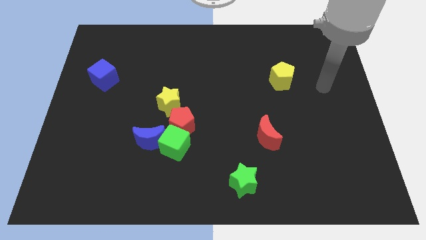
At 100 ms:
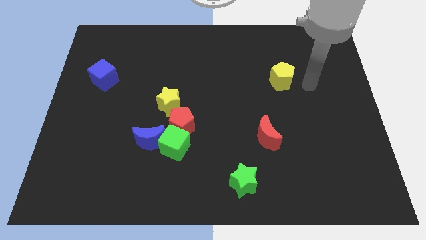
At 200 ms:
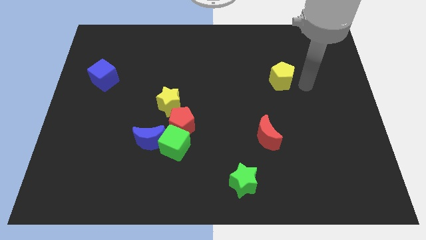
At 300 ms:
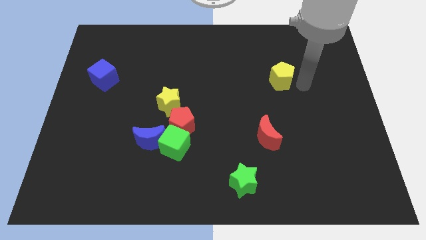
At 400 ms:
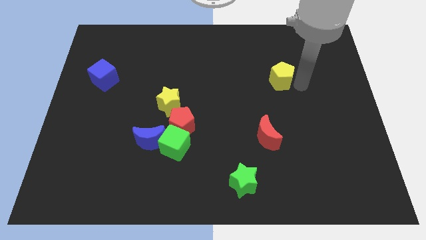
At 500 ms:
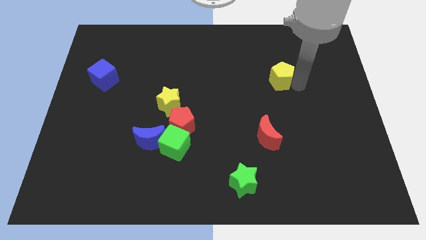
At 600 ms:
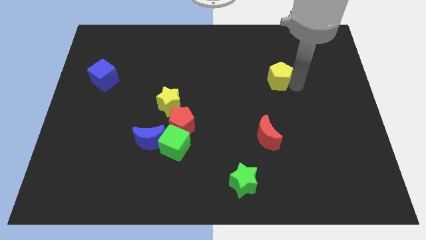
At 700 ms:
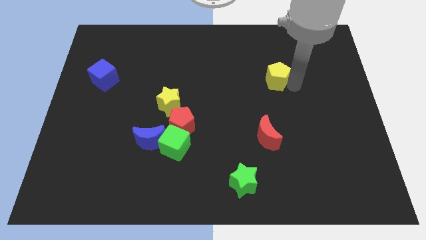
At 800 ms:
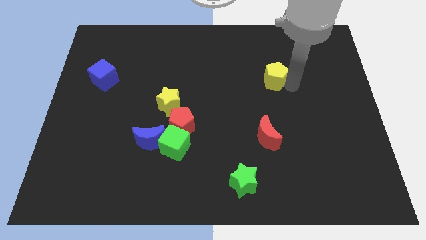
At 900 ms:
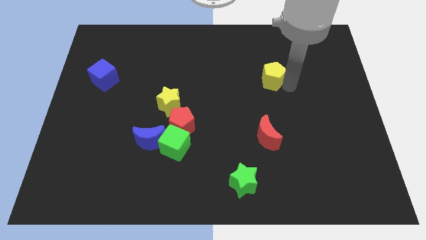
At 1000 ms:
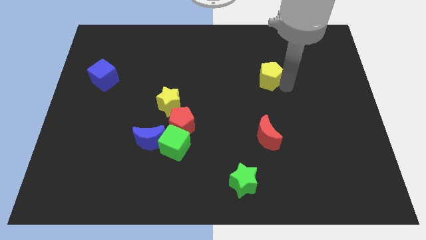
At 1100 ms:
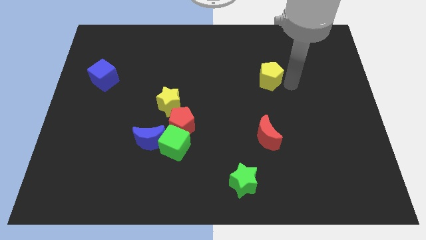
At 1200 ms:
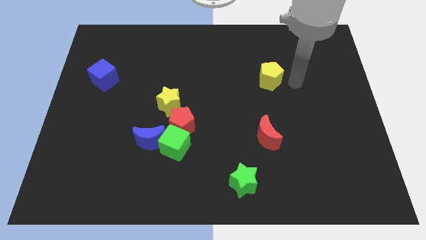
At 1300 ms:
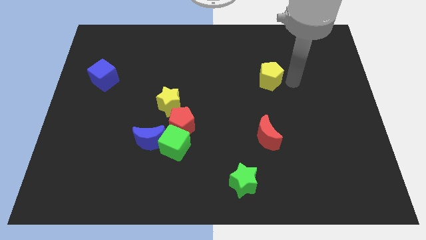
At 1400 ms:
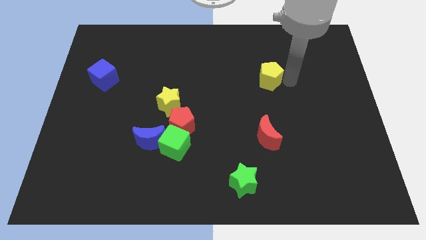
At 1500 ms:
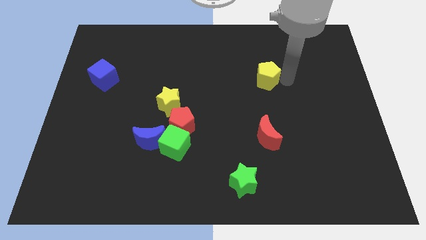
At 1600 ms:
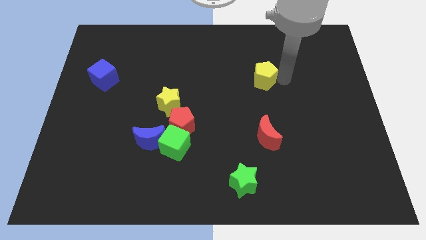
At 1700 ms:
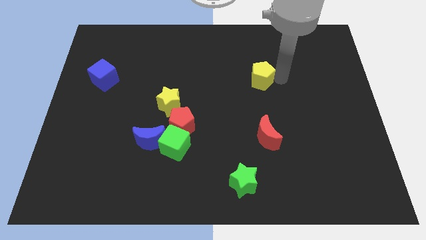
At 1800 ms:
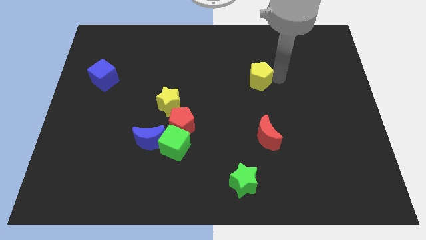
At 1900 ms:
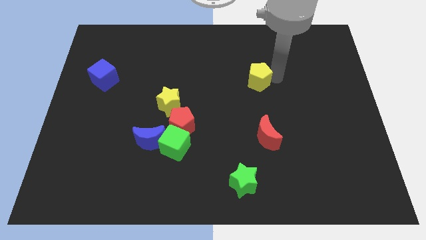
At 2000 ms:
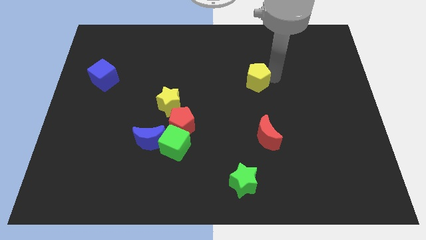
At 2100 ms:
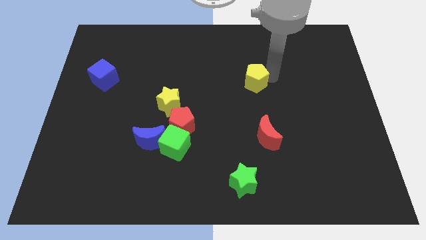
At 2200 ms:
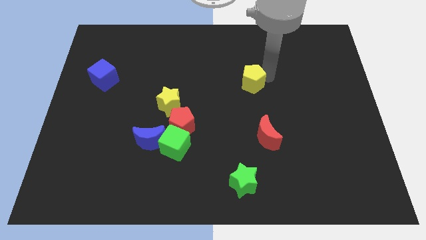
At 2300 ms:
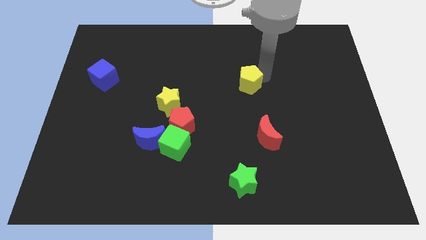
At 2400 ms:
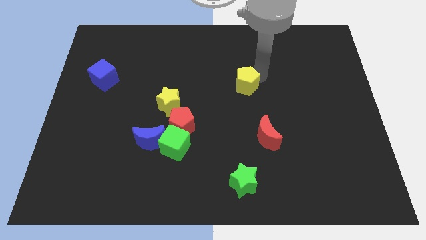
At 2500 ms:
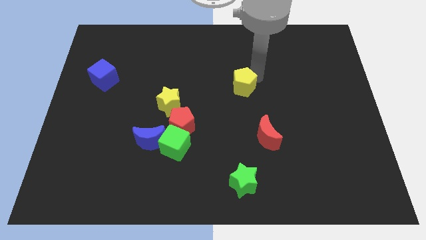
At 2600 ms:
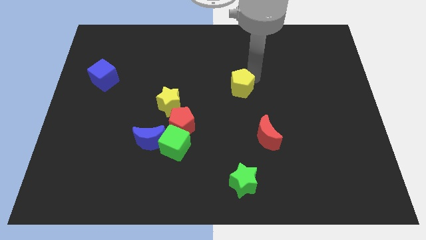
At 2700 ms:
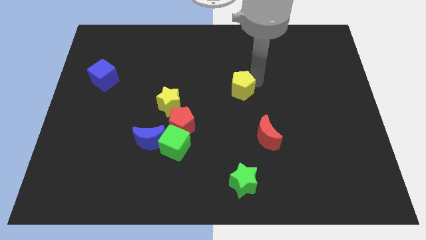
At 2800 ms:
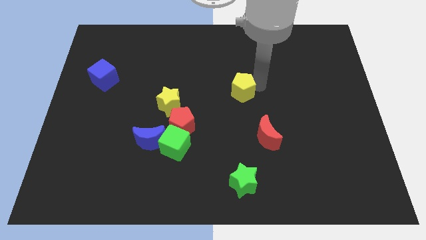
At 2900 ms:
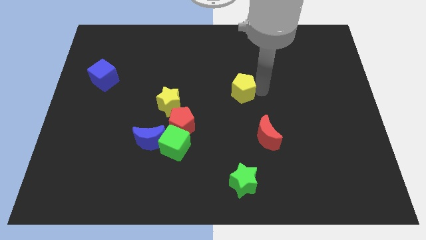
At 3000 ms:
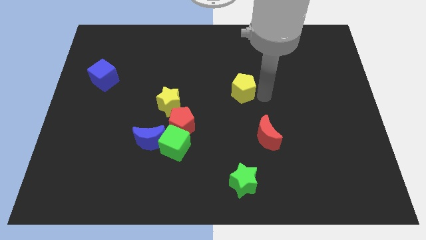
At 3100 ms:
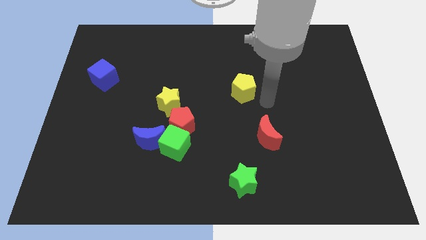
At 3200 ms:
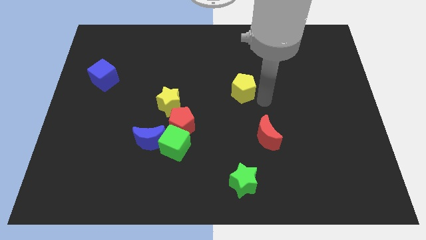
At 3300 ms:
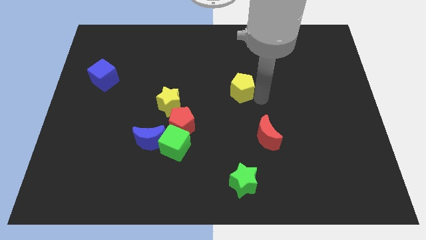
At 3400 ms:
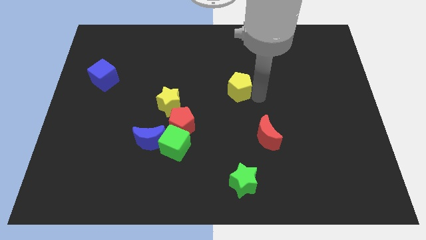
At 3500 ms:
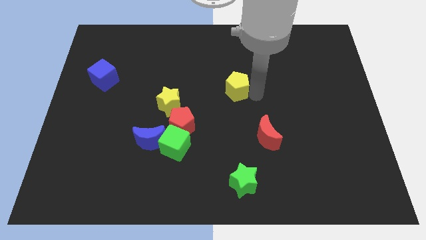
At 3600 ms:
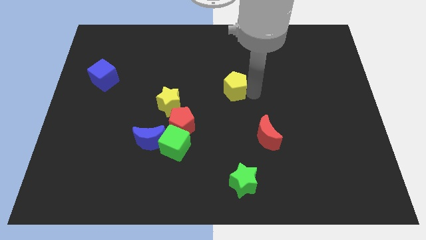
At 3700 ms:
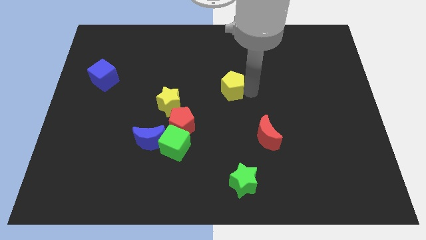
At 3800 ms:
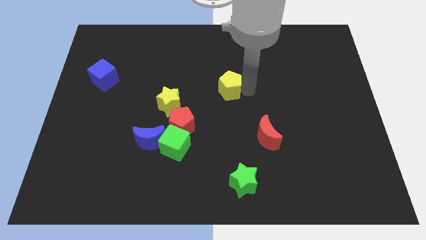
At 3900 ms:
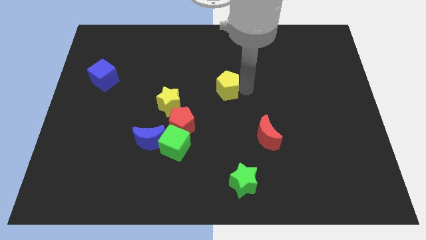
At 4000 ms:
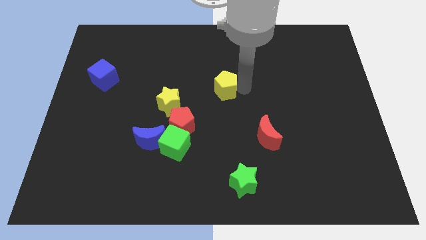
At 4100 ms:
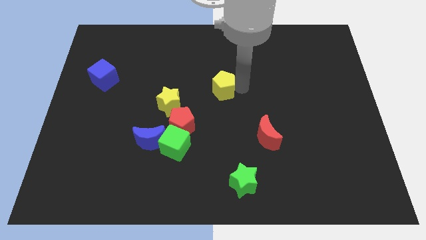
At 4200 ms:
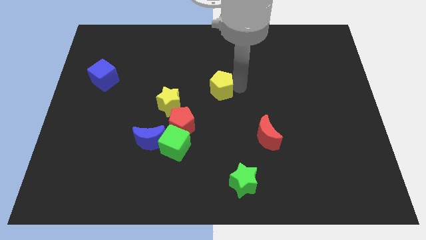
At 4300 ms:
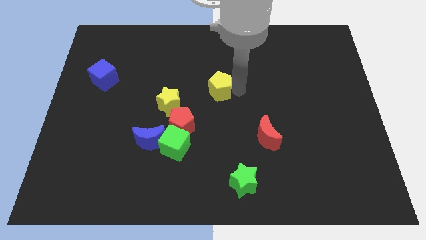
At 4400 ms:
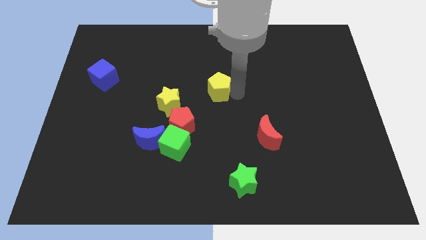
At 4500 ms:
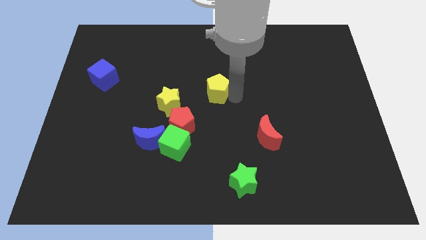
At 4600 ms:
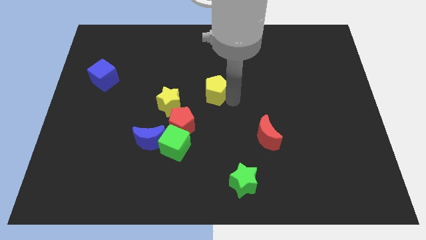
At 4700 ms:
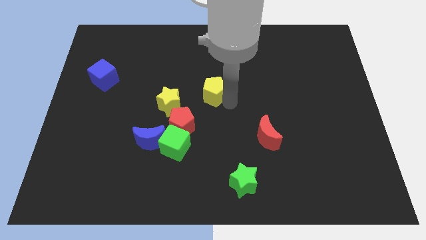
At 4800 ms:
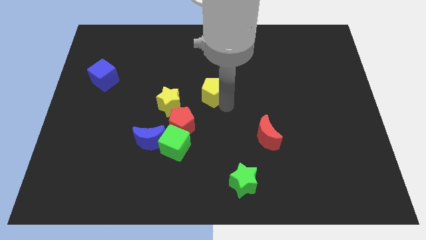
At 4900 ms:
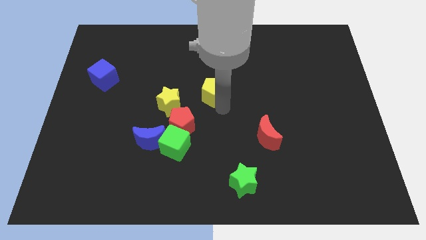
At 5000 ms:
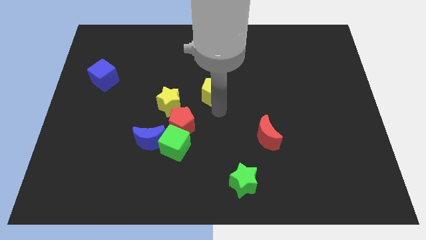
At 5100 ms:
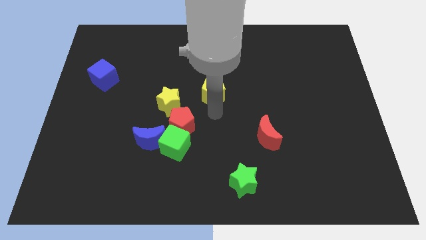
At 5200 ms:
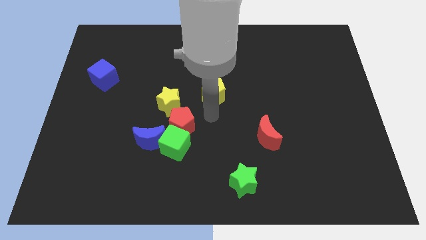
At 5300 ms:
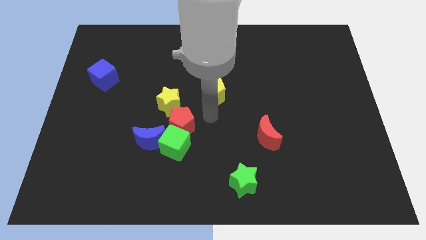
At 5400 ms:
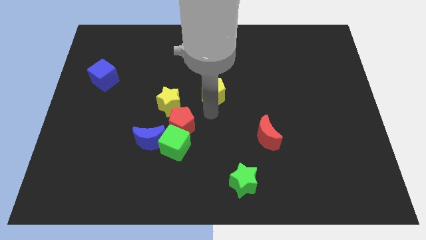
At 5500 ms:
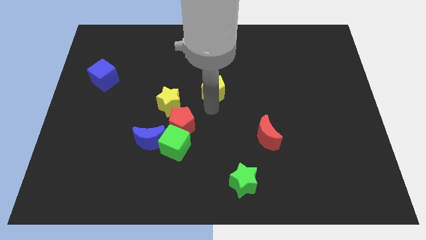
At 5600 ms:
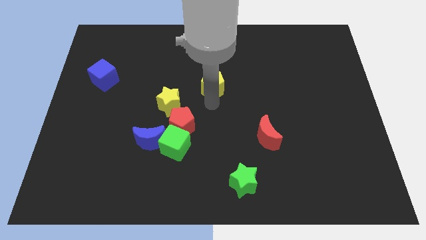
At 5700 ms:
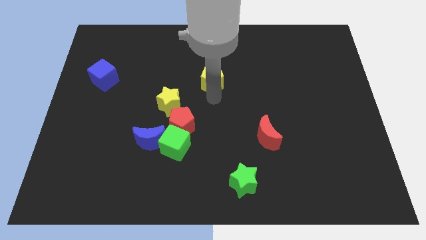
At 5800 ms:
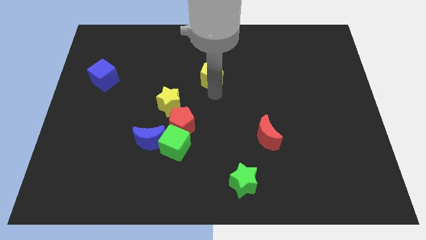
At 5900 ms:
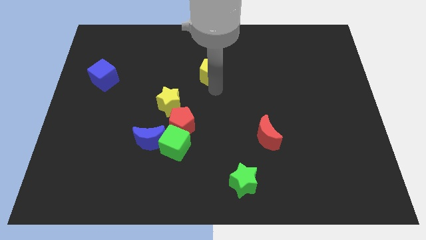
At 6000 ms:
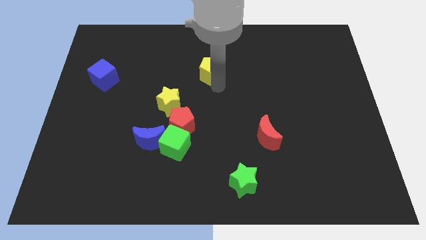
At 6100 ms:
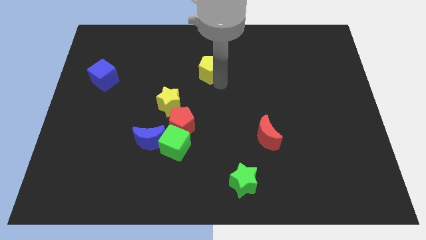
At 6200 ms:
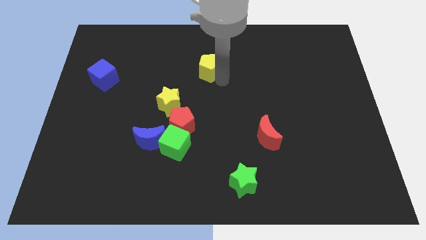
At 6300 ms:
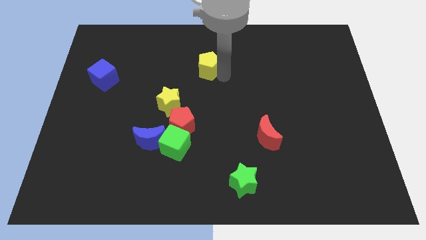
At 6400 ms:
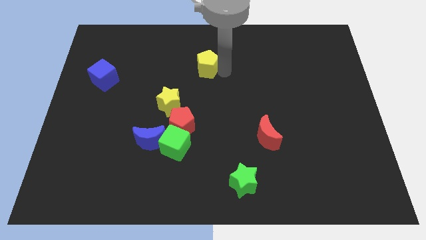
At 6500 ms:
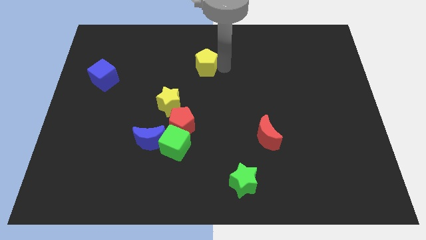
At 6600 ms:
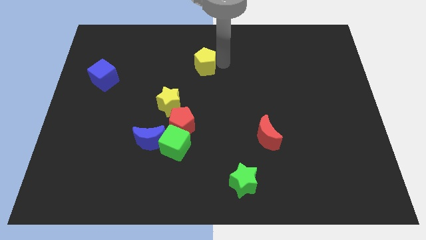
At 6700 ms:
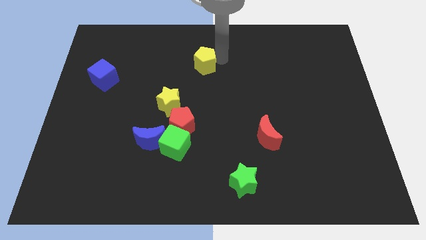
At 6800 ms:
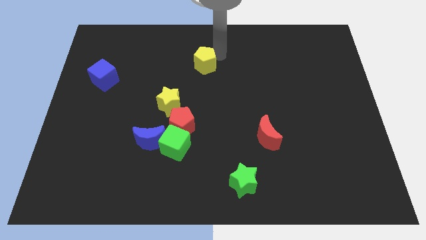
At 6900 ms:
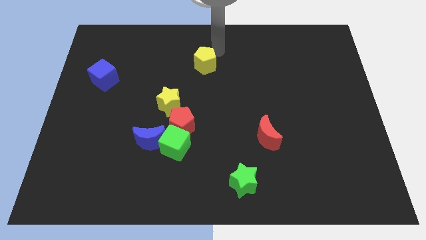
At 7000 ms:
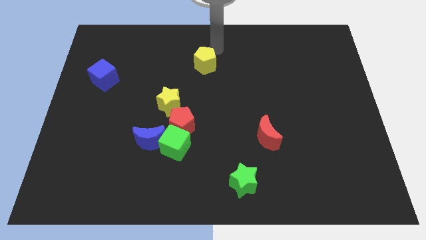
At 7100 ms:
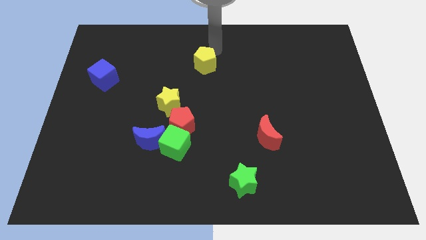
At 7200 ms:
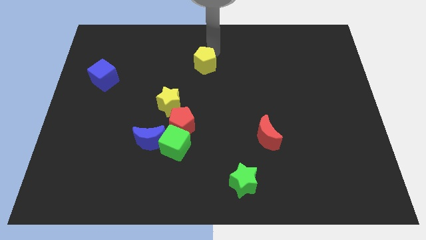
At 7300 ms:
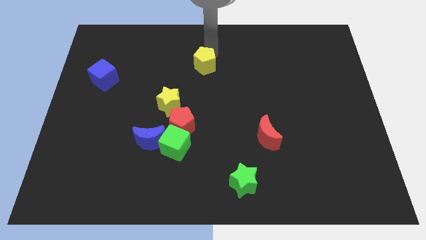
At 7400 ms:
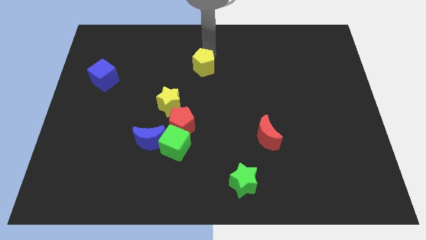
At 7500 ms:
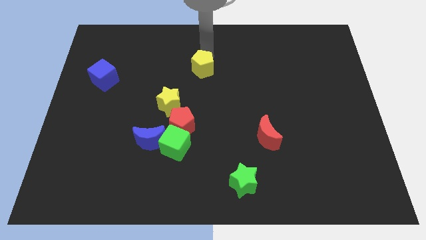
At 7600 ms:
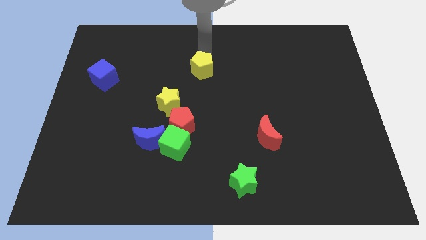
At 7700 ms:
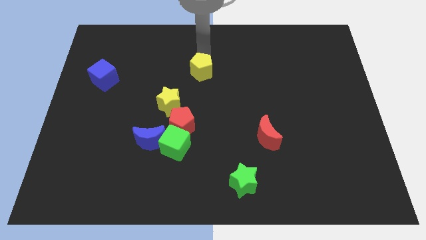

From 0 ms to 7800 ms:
push the yellow pentagon to the left

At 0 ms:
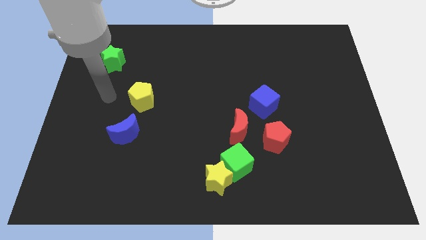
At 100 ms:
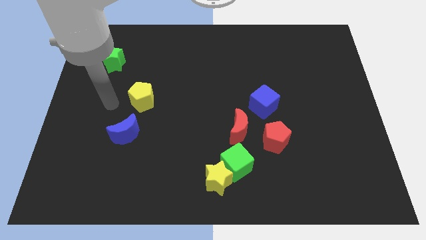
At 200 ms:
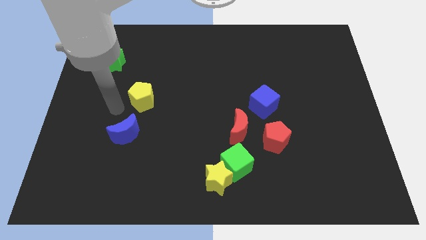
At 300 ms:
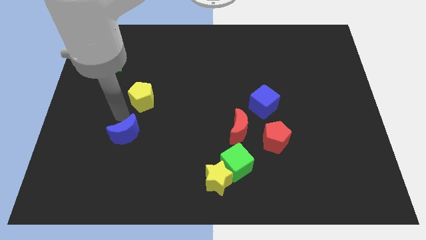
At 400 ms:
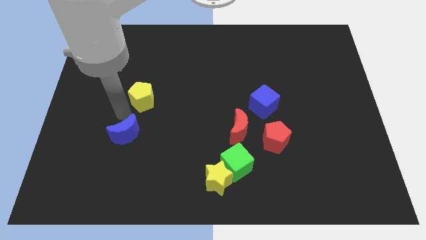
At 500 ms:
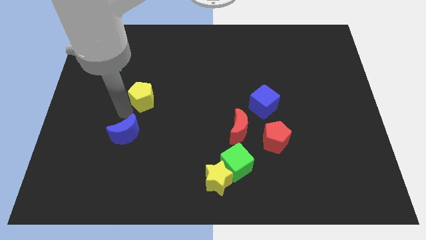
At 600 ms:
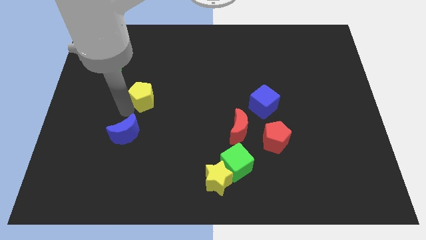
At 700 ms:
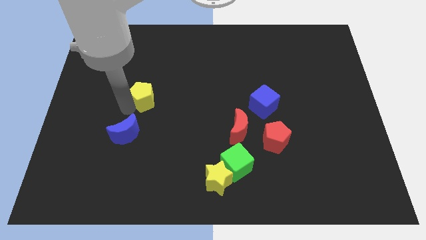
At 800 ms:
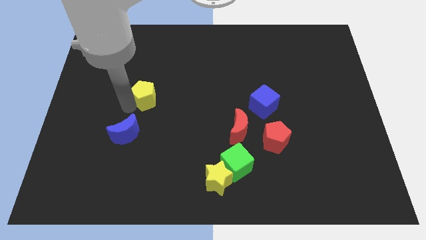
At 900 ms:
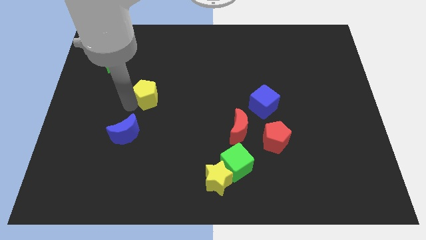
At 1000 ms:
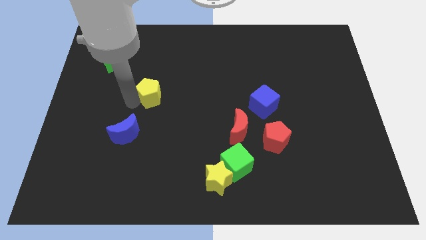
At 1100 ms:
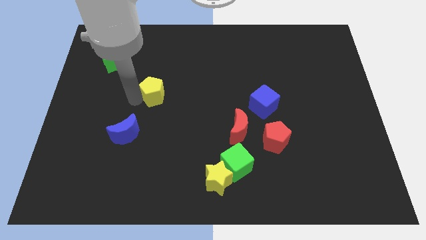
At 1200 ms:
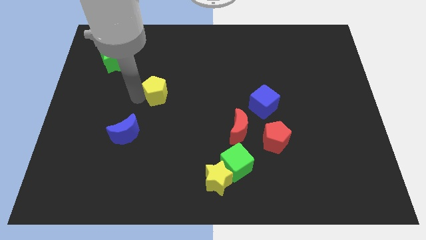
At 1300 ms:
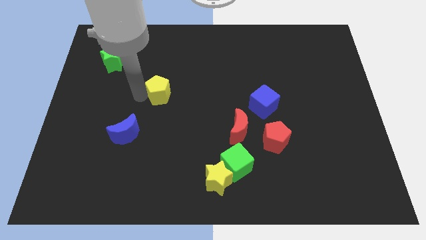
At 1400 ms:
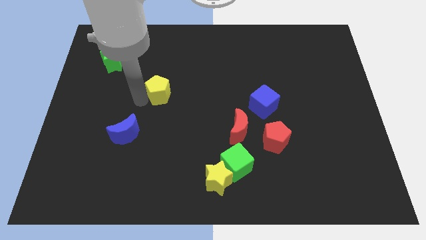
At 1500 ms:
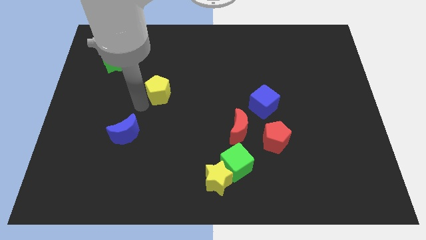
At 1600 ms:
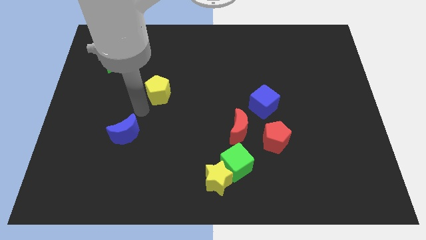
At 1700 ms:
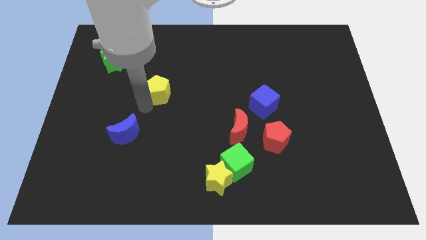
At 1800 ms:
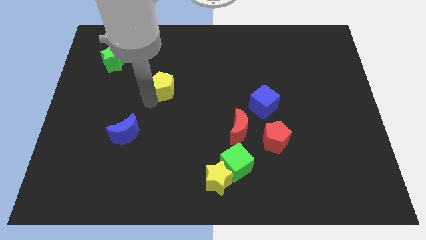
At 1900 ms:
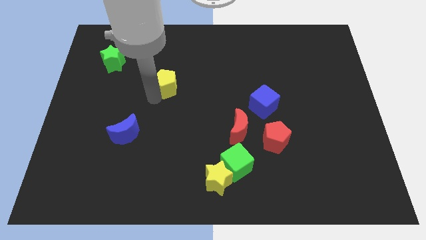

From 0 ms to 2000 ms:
slightly push the yellow pentagon diagonally upwards and right
